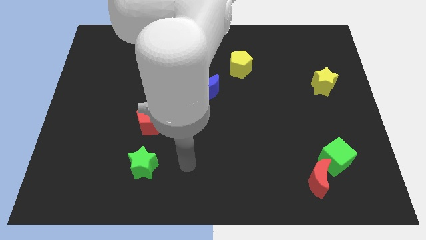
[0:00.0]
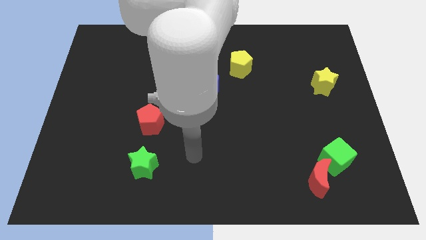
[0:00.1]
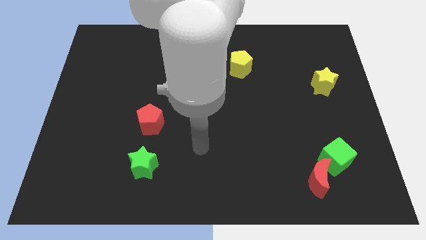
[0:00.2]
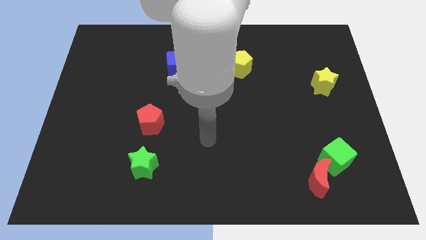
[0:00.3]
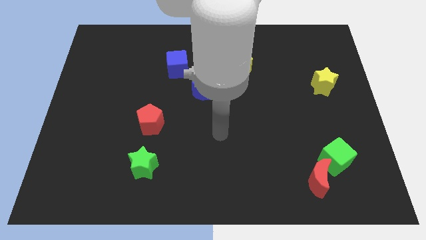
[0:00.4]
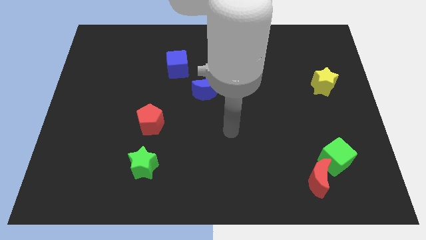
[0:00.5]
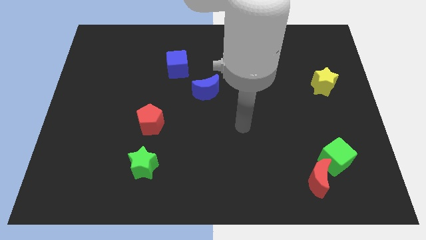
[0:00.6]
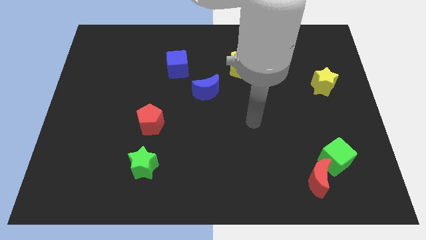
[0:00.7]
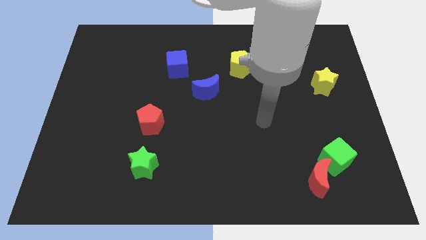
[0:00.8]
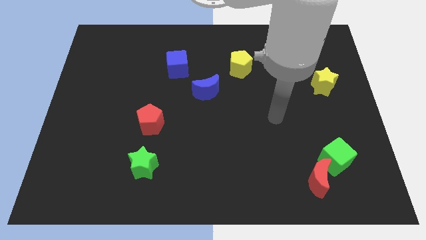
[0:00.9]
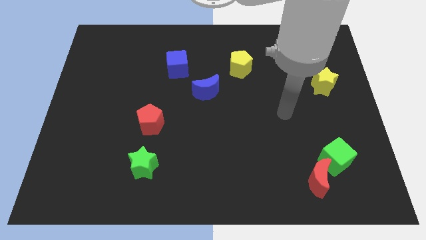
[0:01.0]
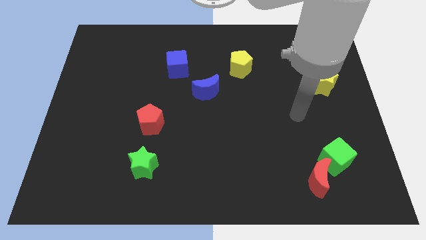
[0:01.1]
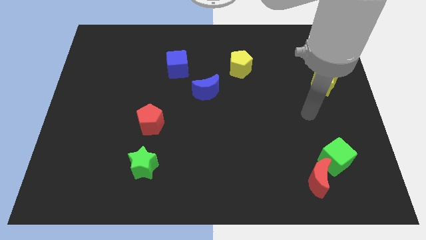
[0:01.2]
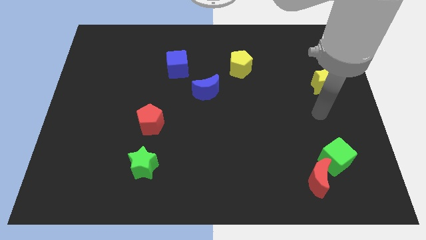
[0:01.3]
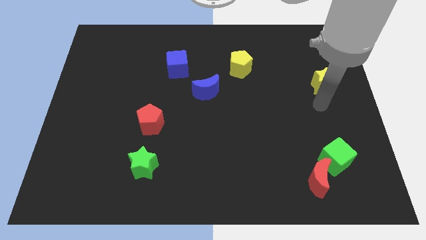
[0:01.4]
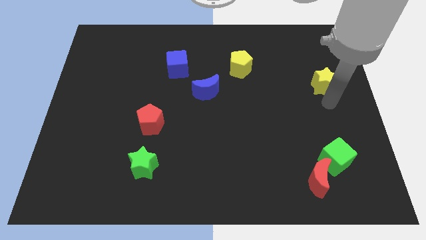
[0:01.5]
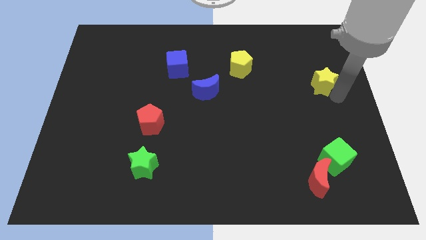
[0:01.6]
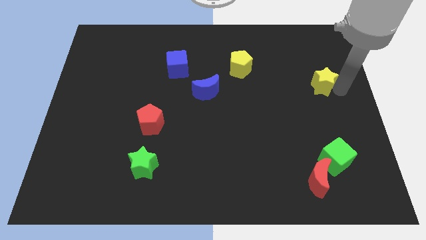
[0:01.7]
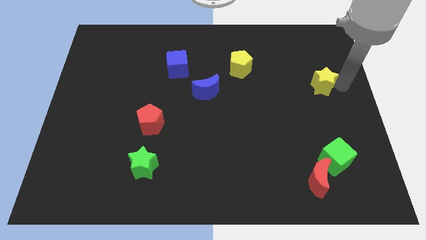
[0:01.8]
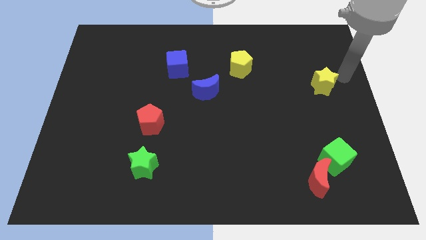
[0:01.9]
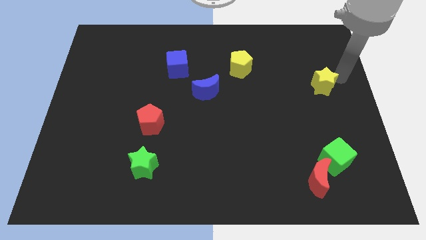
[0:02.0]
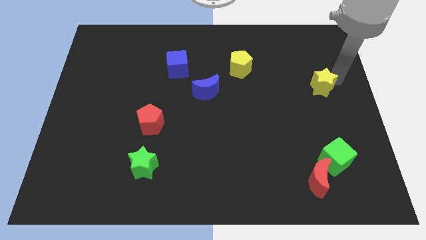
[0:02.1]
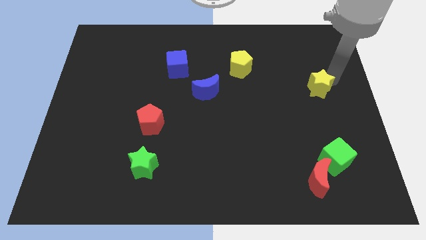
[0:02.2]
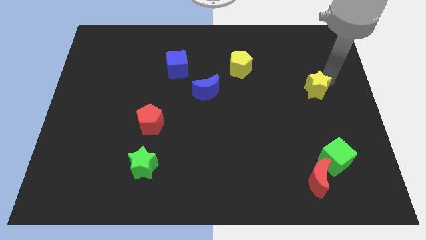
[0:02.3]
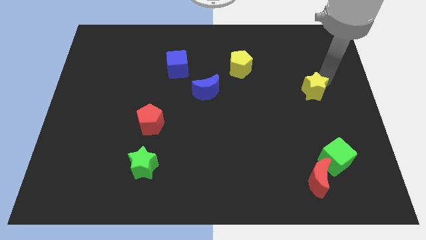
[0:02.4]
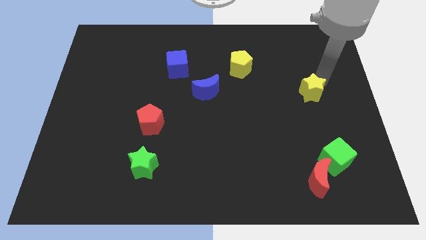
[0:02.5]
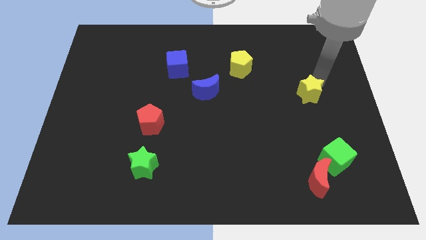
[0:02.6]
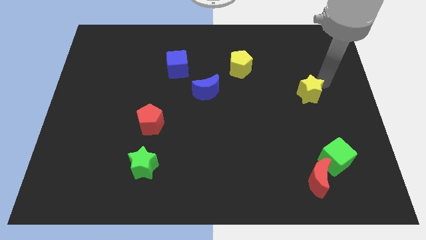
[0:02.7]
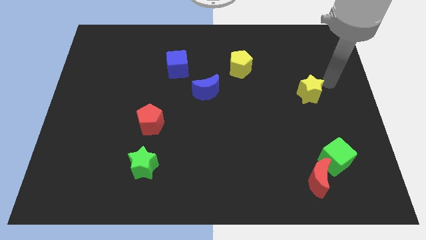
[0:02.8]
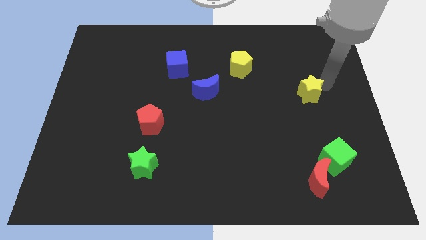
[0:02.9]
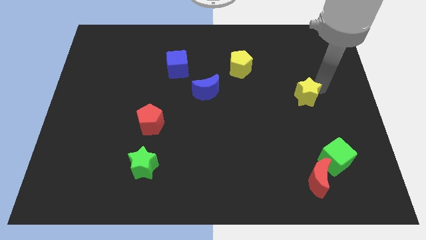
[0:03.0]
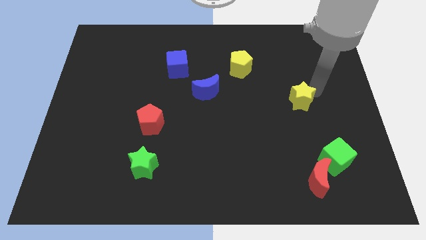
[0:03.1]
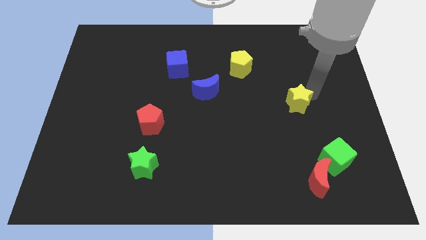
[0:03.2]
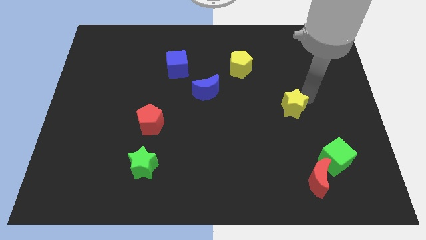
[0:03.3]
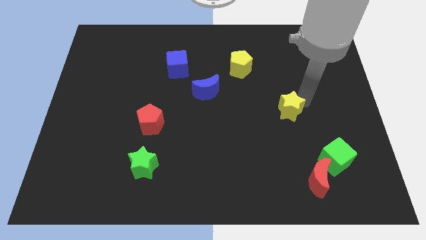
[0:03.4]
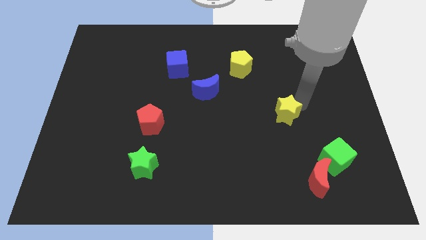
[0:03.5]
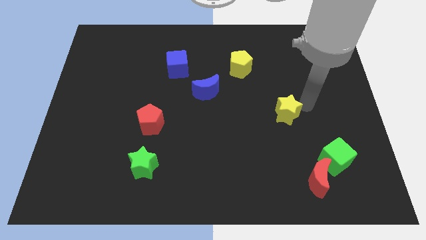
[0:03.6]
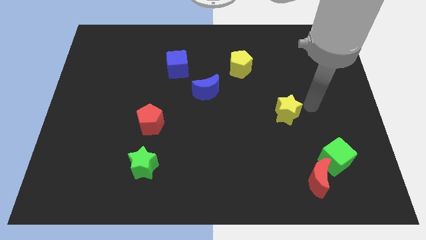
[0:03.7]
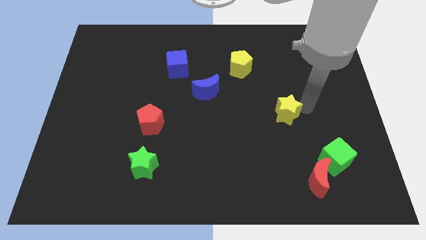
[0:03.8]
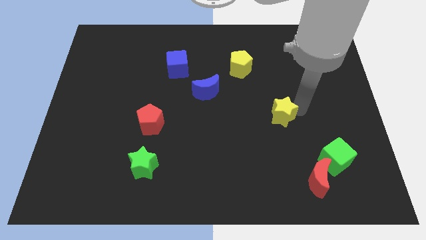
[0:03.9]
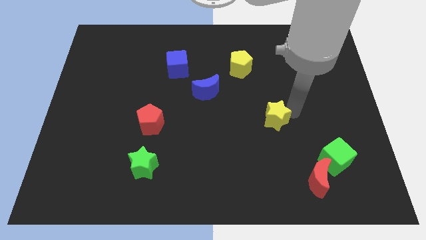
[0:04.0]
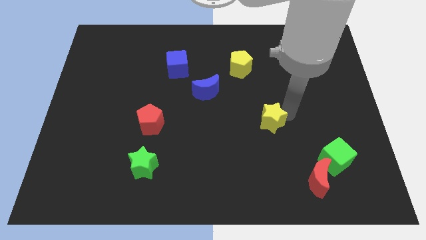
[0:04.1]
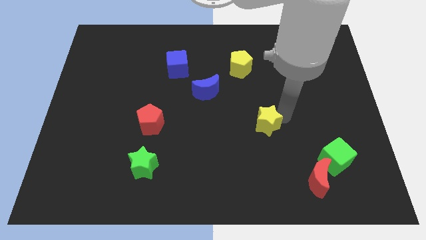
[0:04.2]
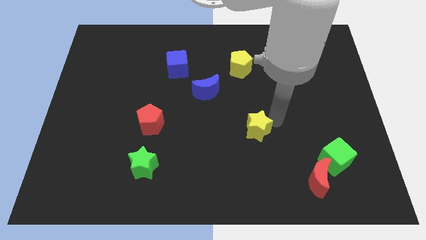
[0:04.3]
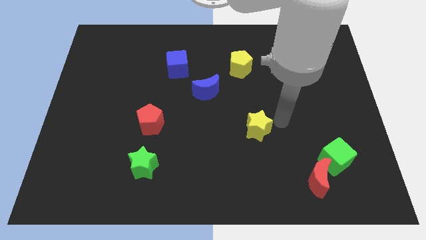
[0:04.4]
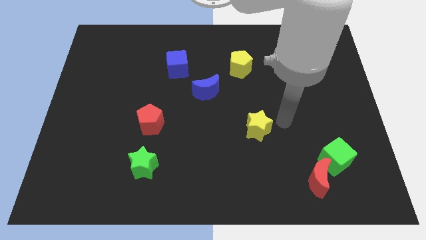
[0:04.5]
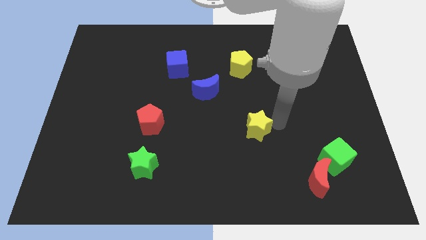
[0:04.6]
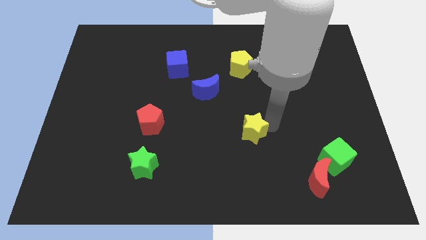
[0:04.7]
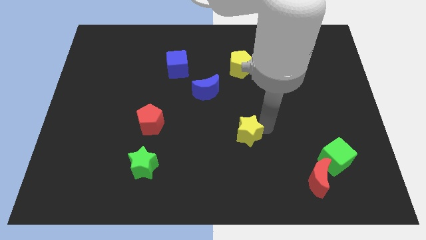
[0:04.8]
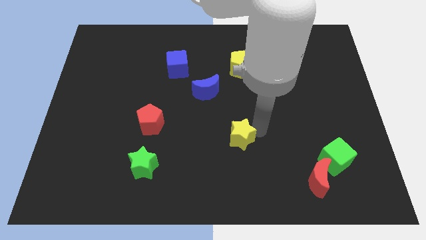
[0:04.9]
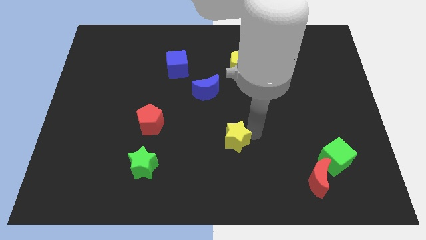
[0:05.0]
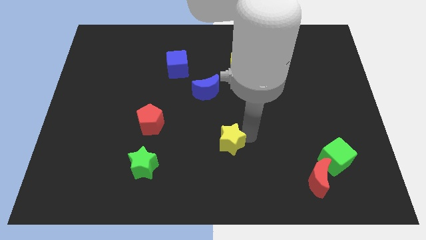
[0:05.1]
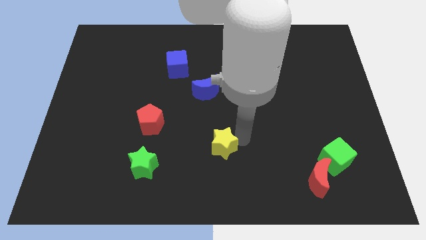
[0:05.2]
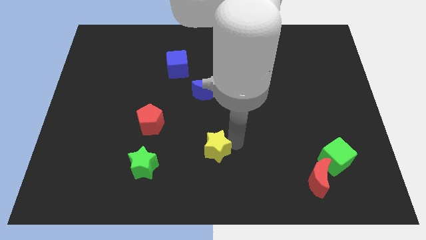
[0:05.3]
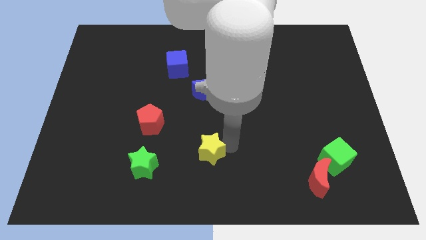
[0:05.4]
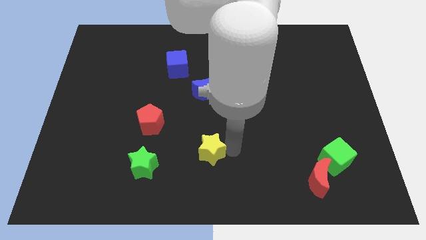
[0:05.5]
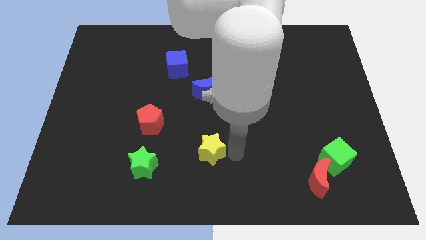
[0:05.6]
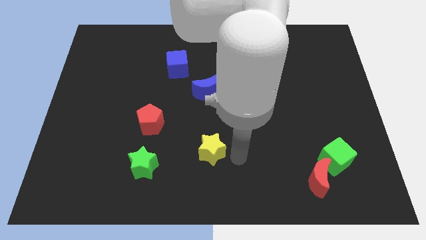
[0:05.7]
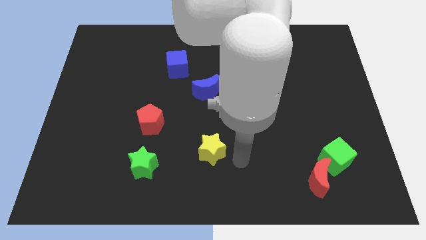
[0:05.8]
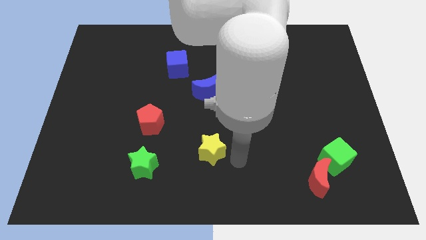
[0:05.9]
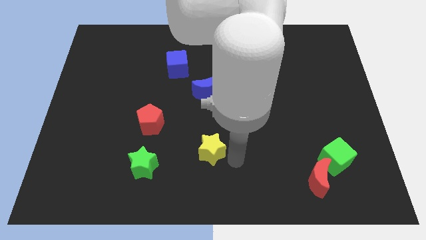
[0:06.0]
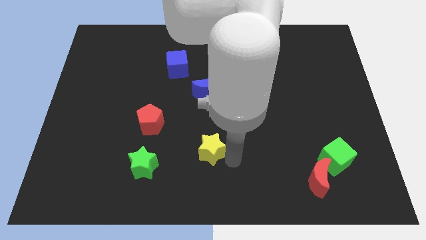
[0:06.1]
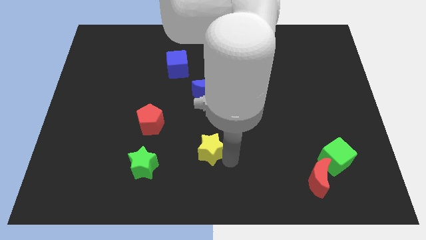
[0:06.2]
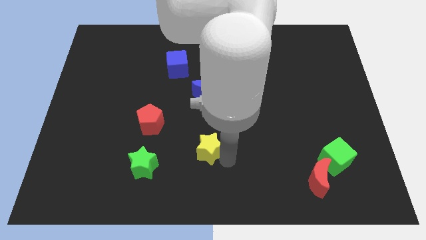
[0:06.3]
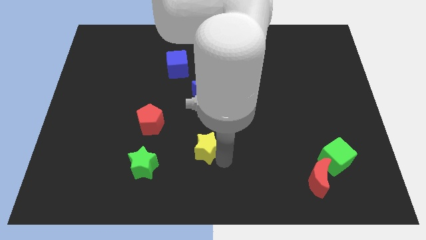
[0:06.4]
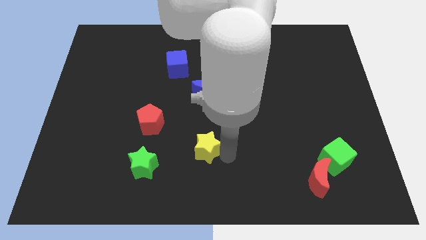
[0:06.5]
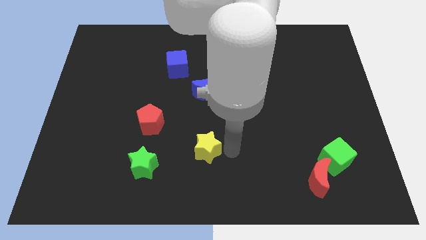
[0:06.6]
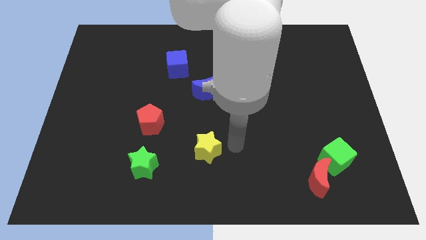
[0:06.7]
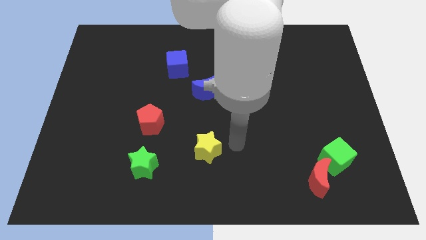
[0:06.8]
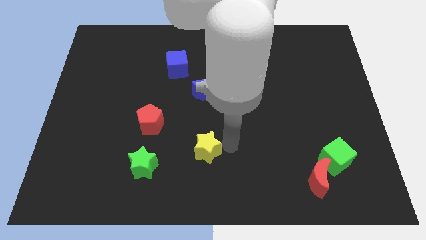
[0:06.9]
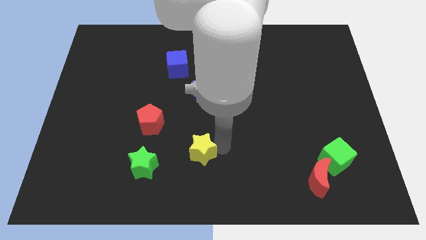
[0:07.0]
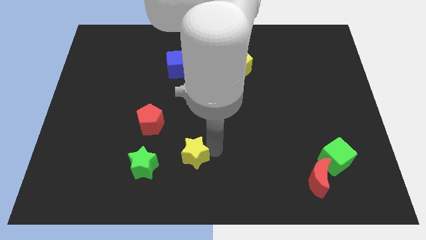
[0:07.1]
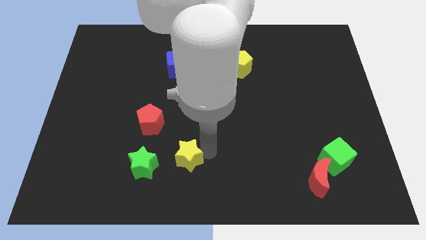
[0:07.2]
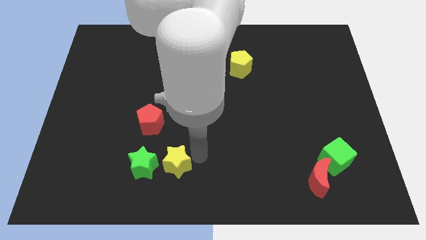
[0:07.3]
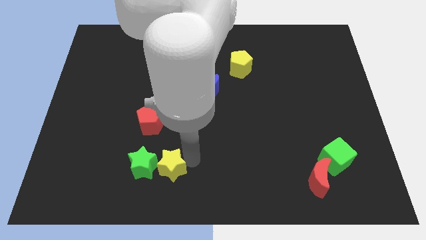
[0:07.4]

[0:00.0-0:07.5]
slide the yellow star next to the green star
